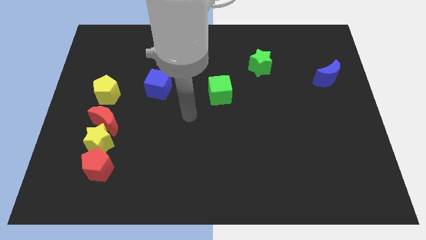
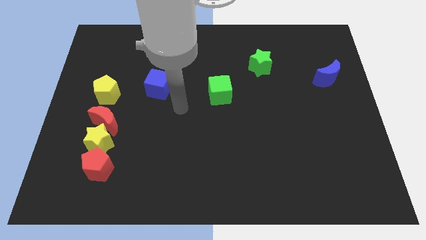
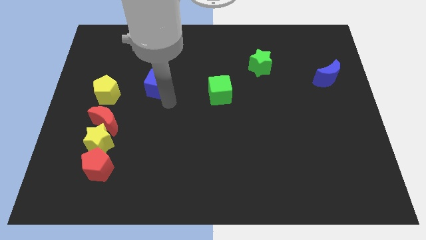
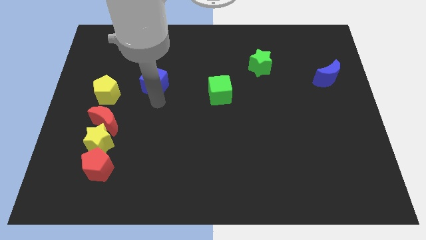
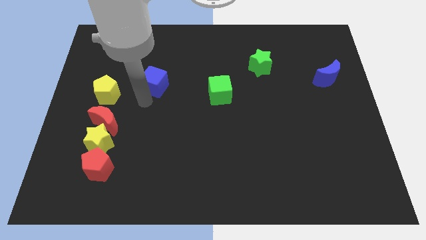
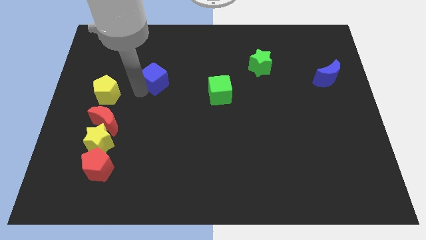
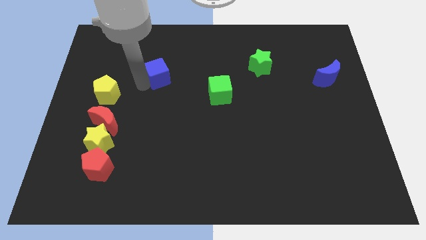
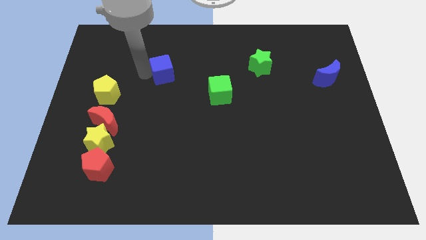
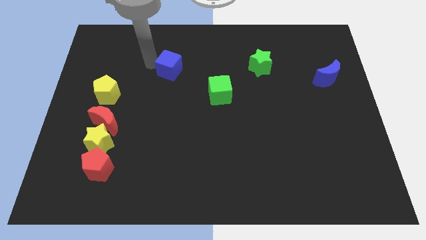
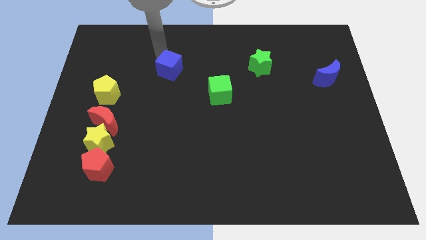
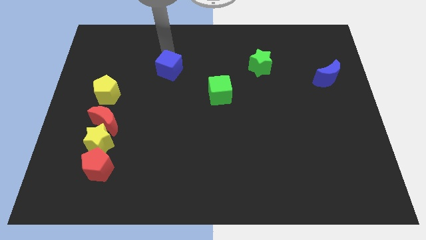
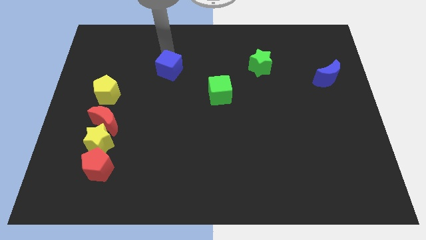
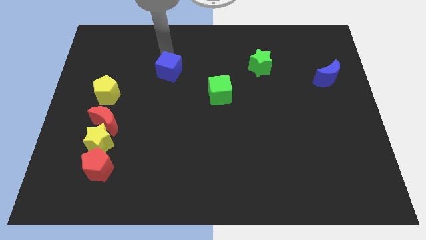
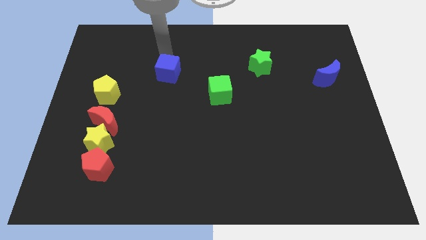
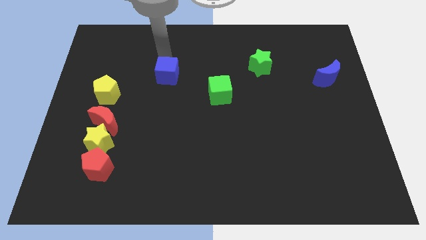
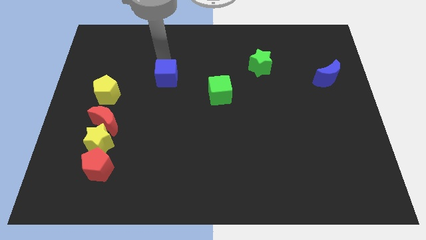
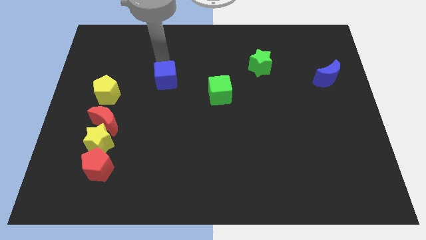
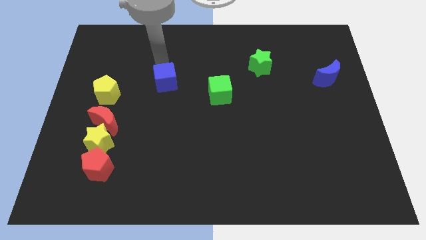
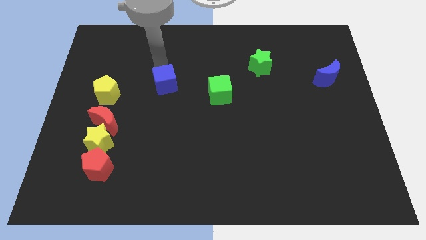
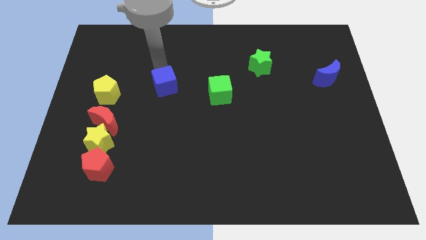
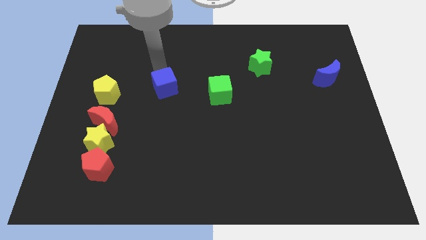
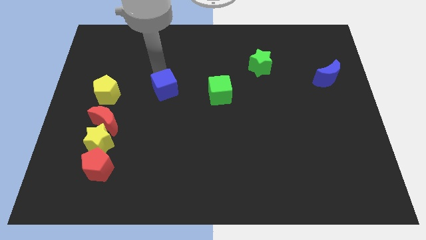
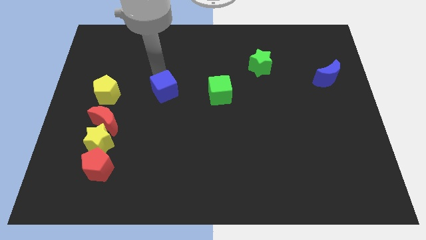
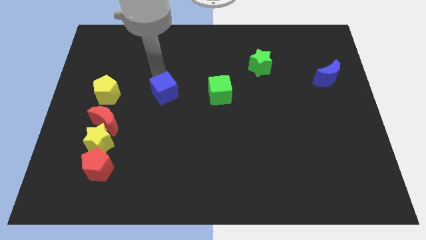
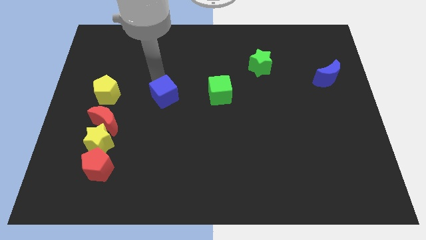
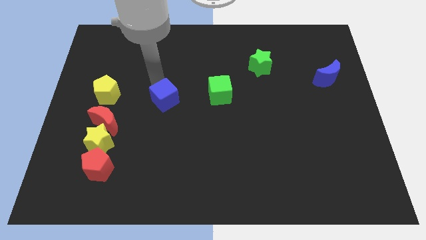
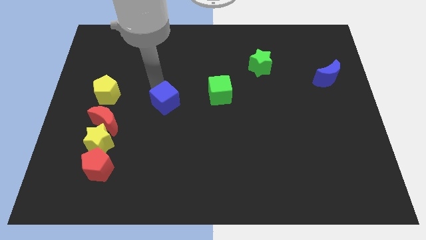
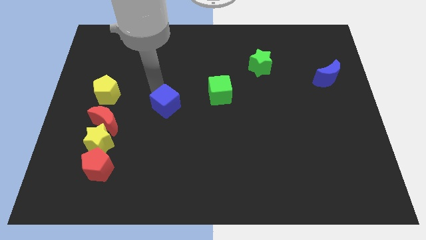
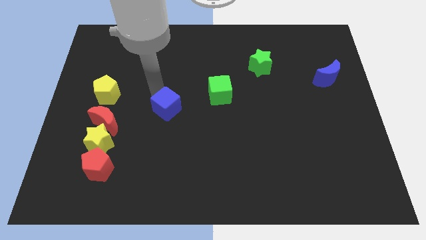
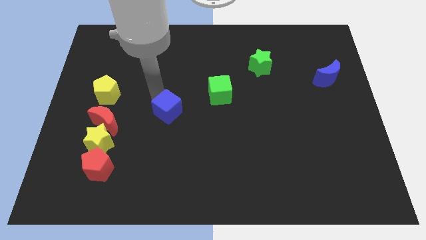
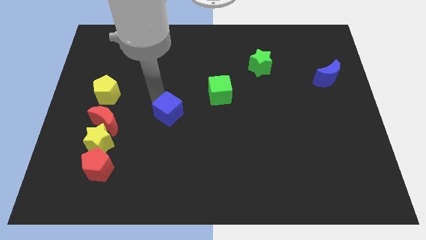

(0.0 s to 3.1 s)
move the blue cube downwards and then right slightly

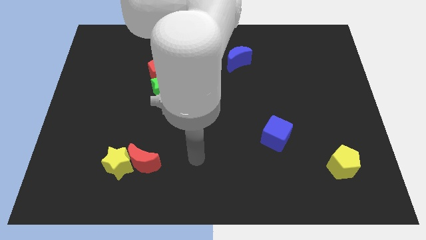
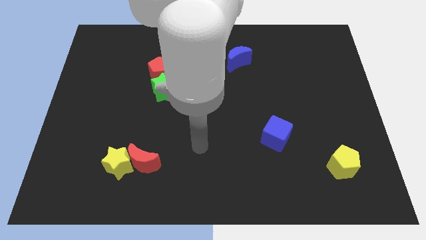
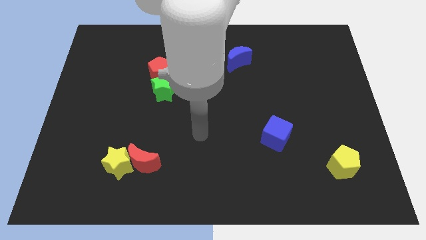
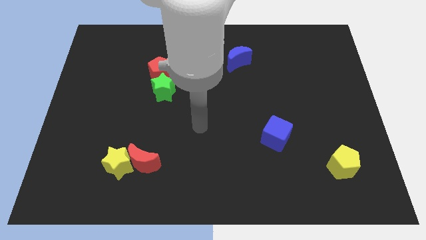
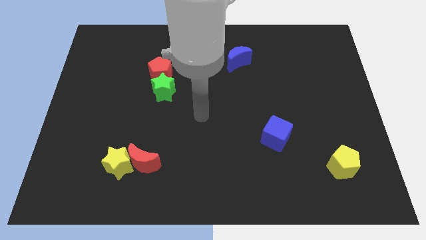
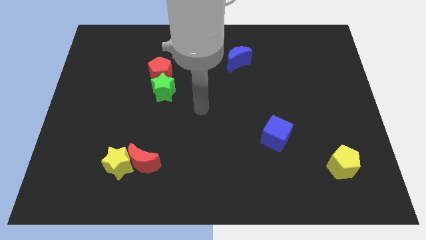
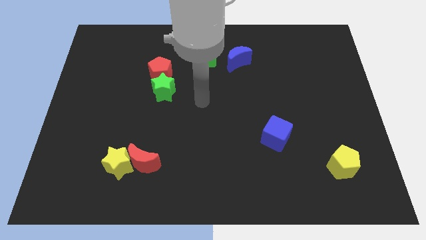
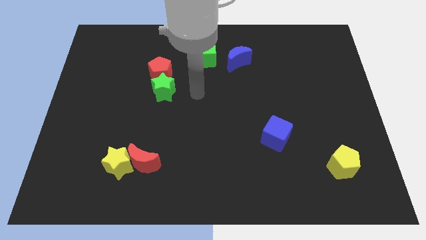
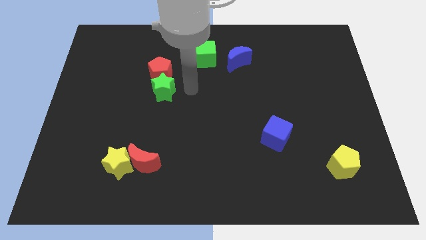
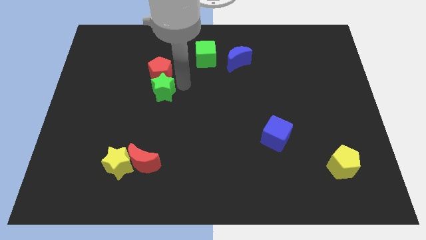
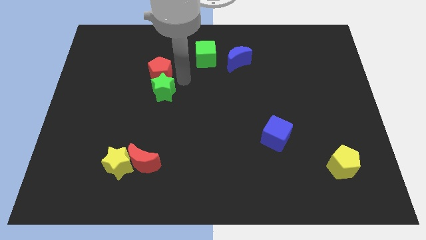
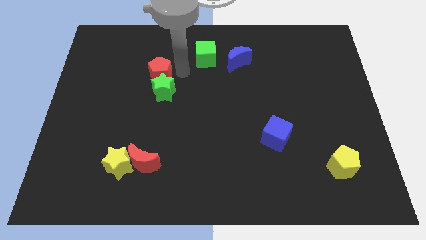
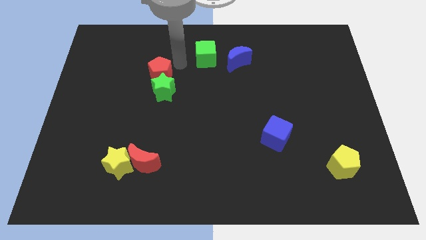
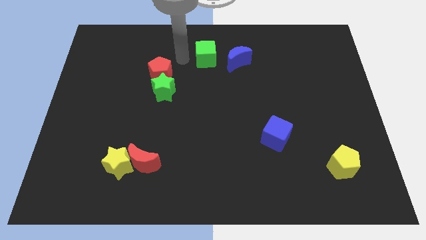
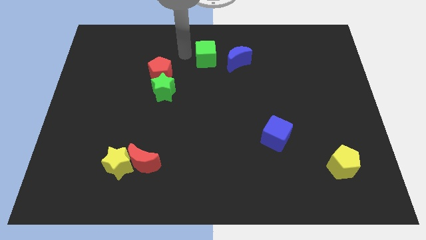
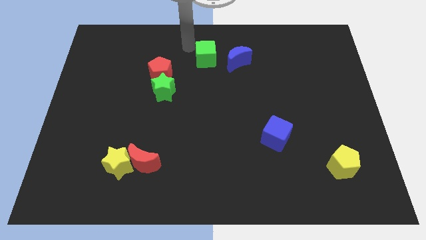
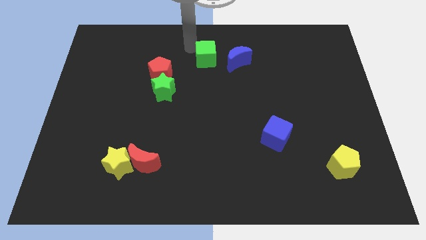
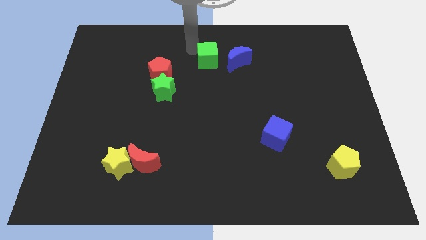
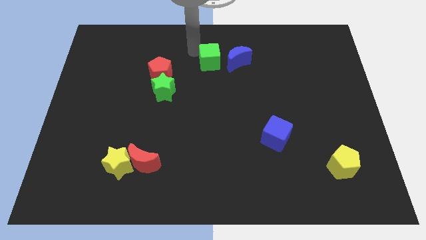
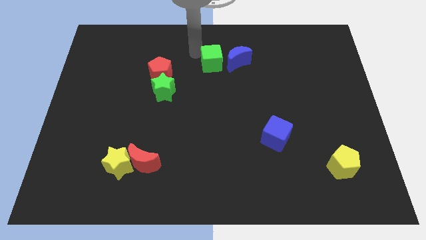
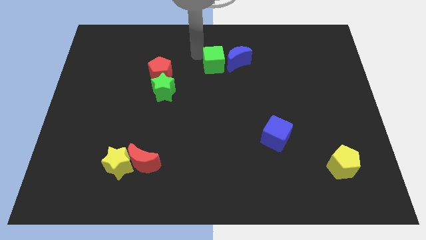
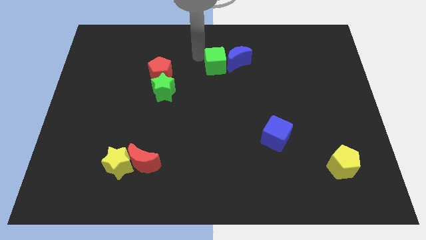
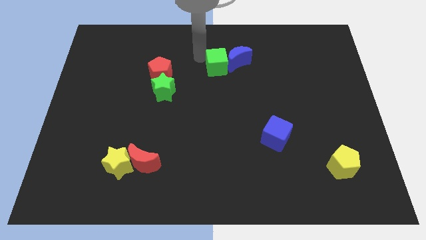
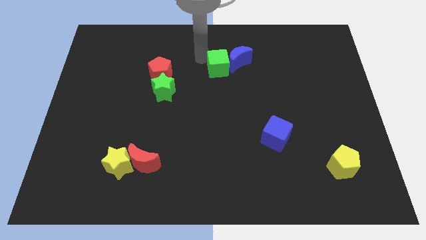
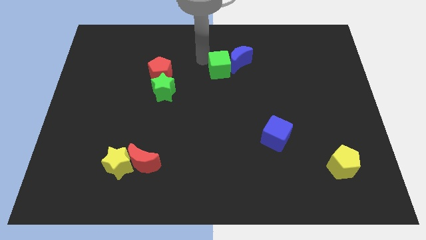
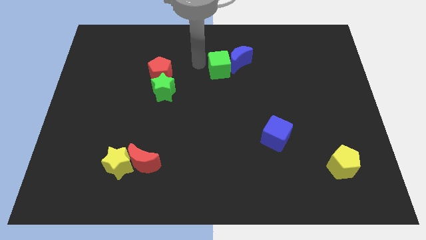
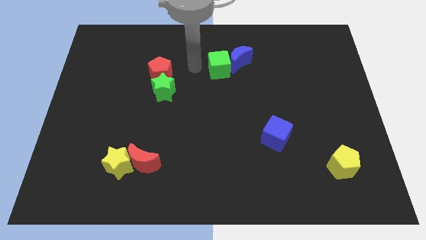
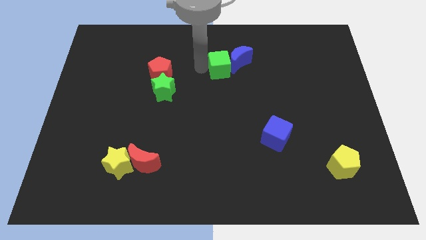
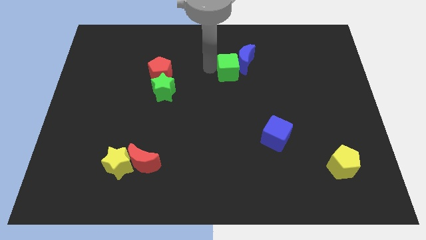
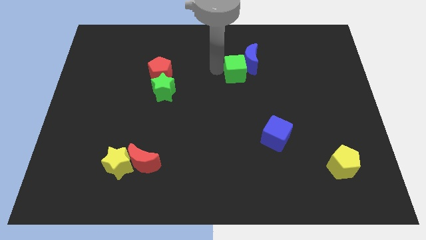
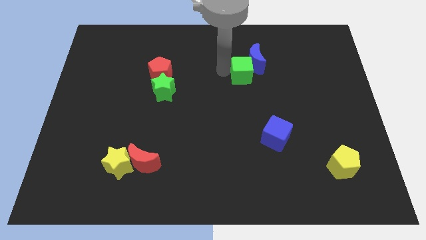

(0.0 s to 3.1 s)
slide the green cube a little right

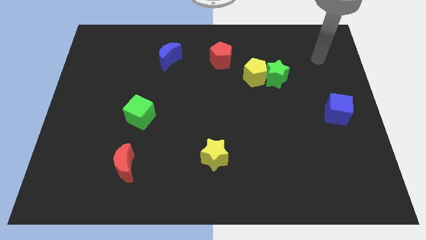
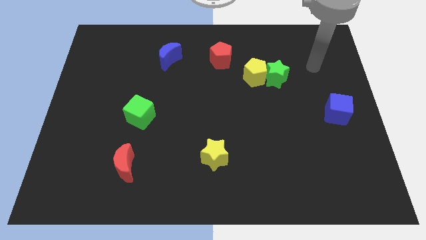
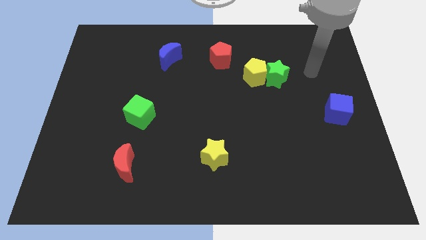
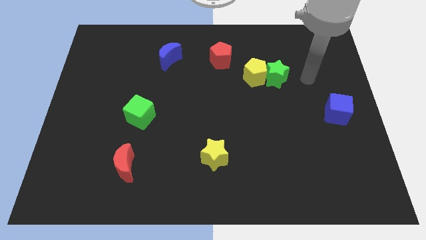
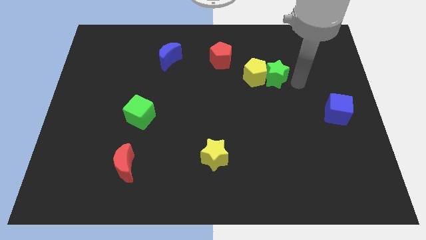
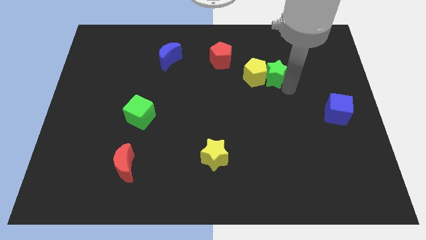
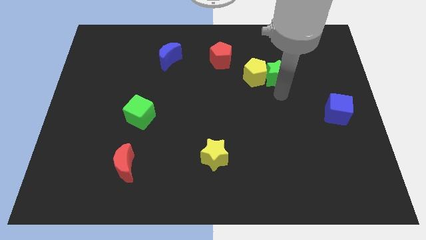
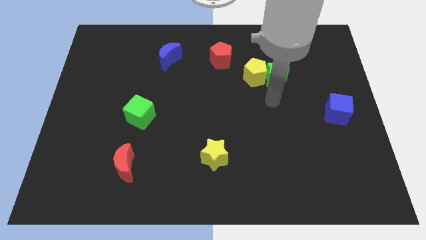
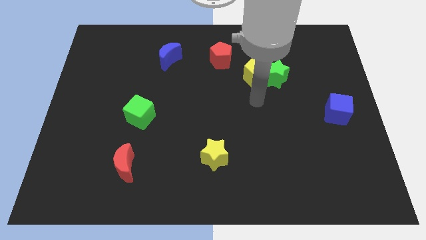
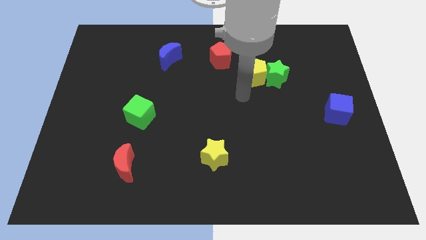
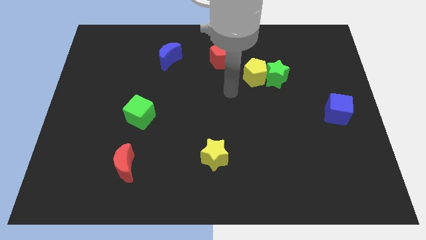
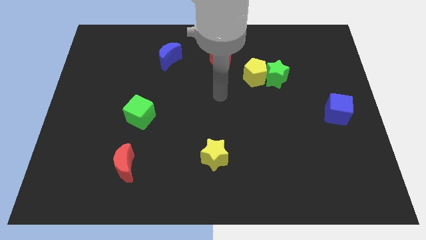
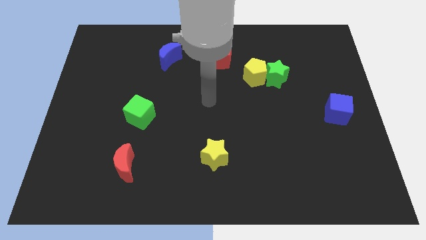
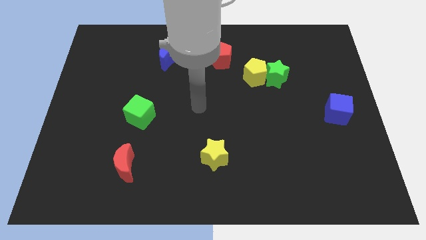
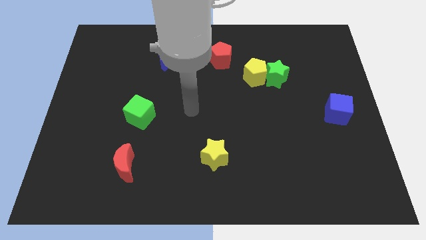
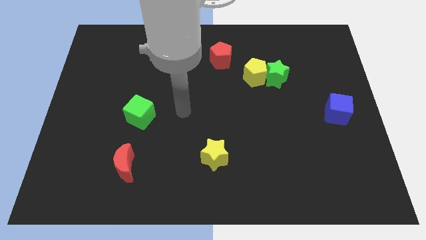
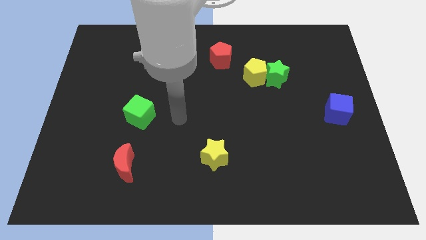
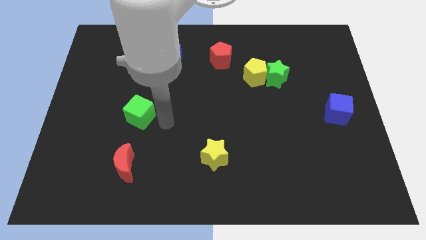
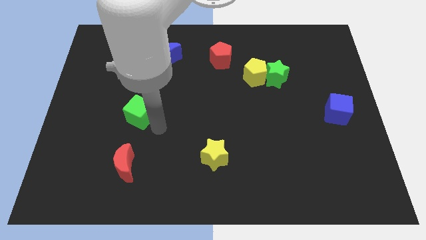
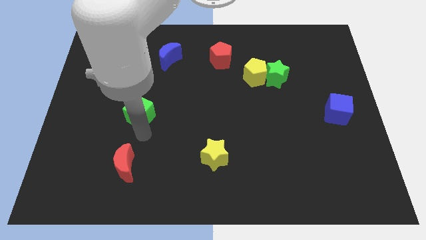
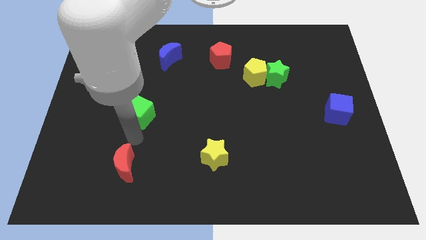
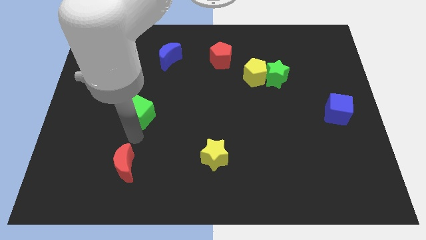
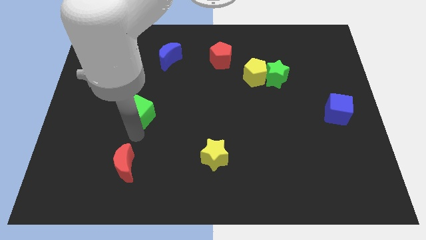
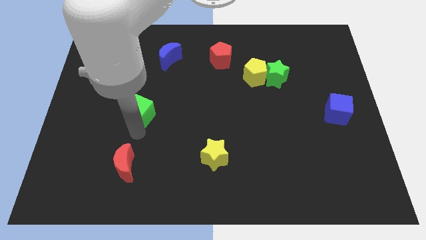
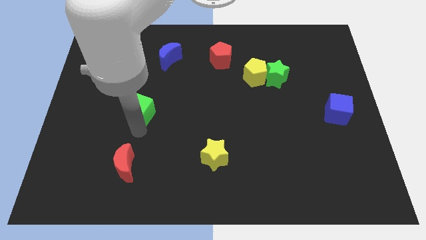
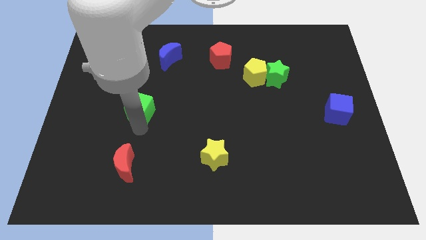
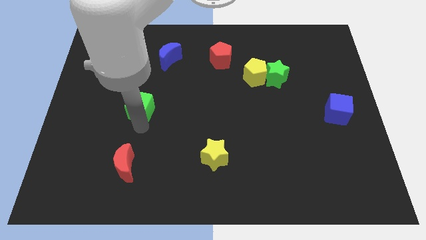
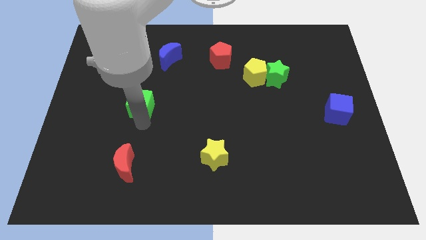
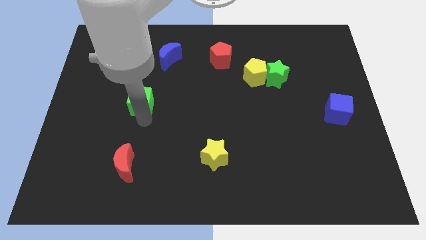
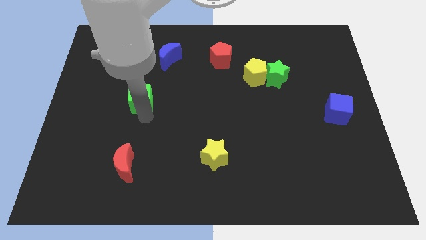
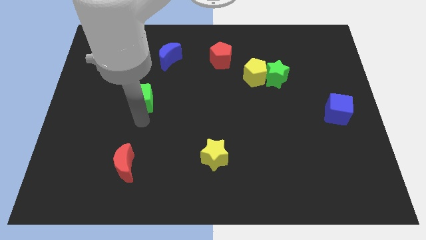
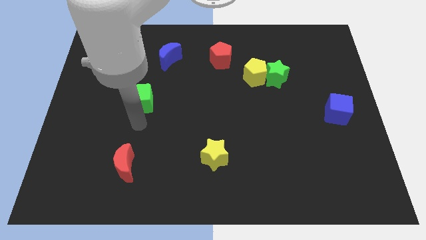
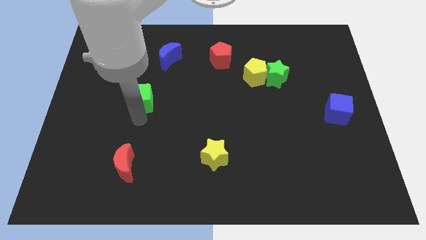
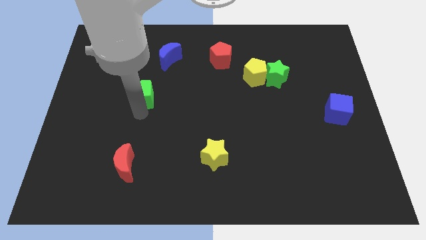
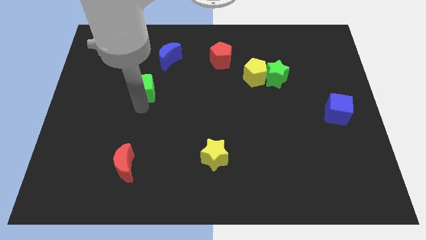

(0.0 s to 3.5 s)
slightly push the green cube up
